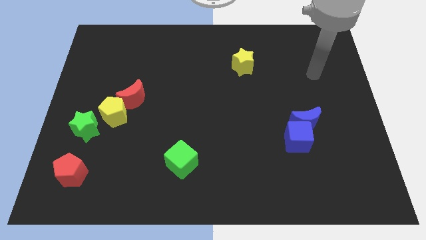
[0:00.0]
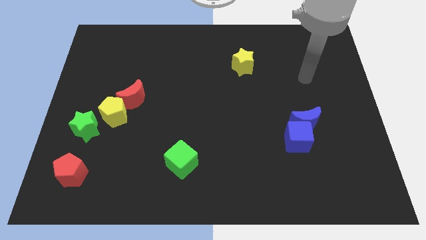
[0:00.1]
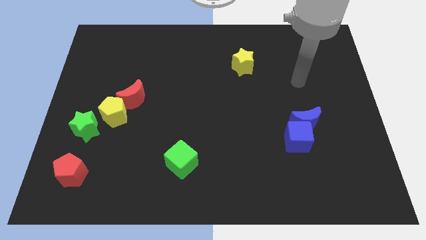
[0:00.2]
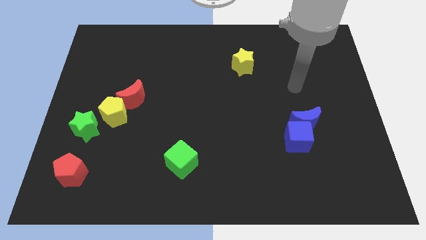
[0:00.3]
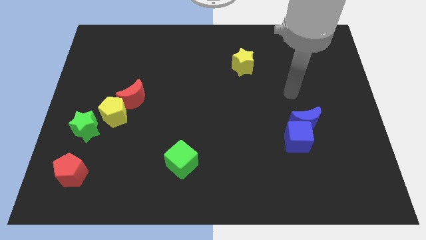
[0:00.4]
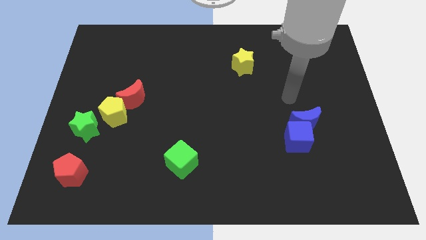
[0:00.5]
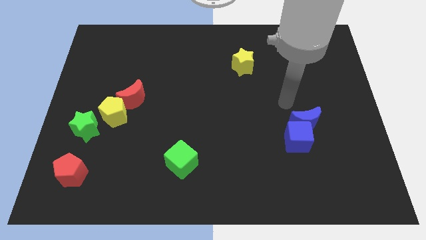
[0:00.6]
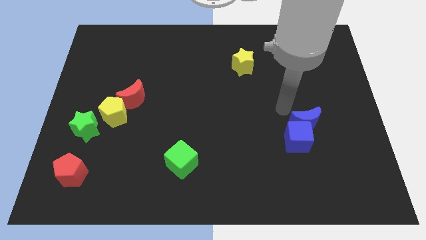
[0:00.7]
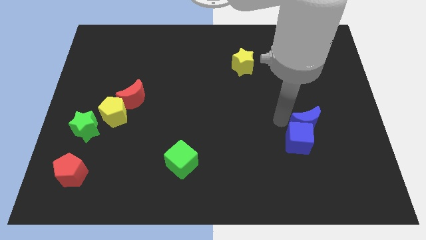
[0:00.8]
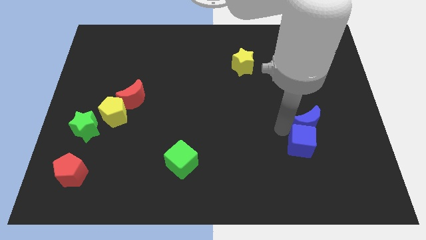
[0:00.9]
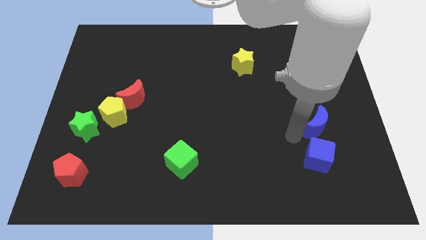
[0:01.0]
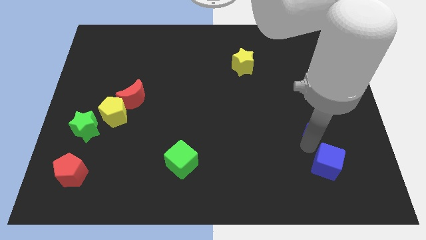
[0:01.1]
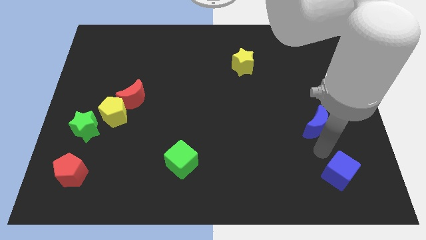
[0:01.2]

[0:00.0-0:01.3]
pull the blue moon apart from the blue cube

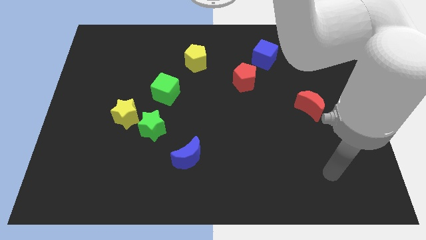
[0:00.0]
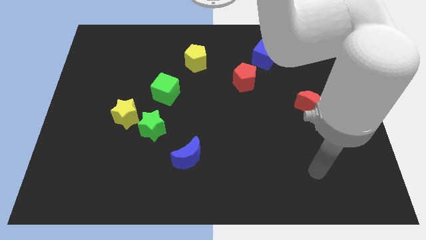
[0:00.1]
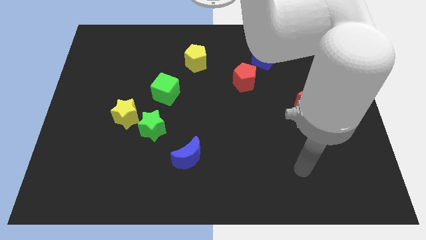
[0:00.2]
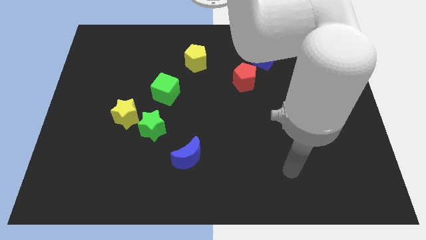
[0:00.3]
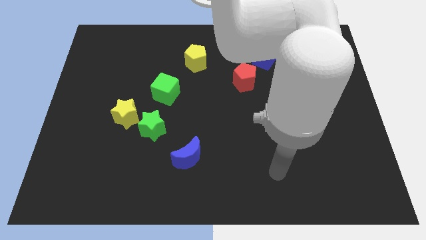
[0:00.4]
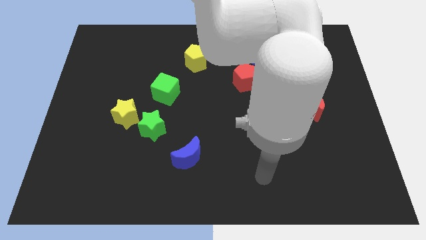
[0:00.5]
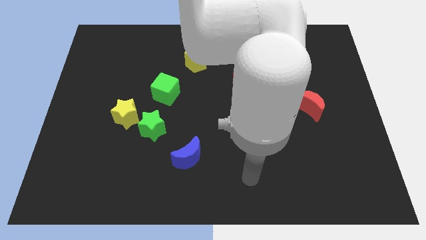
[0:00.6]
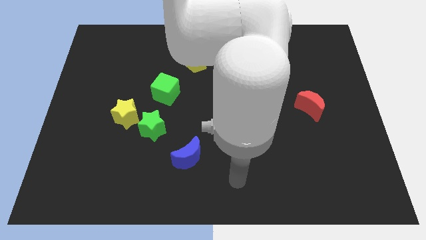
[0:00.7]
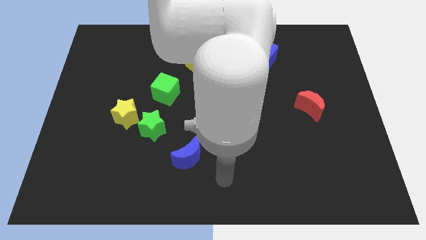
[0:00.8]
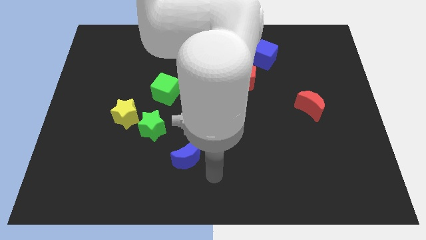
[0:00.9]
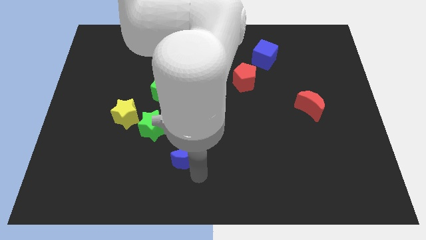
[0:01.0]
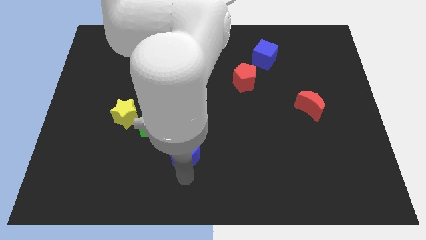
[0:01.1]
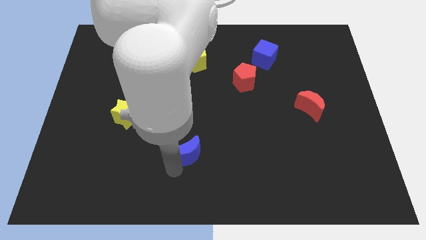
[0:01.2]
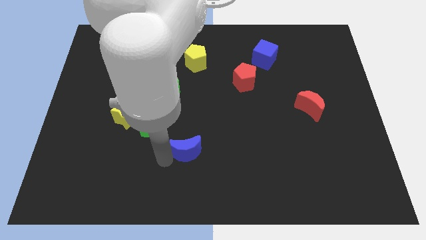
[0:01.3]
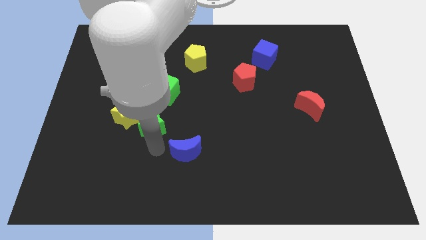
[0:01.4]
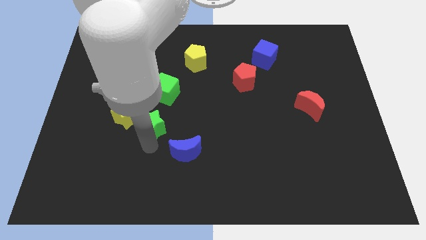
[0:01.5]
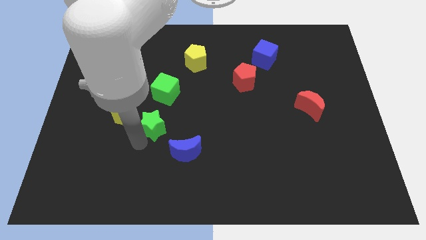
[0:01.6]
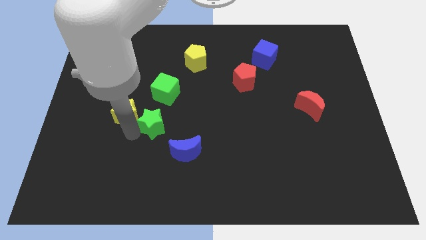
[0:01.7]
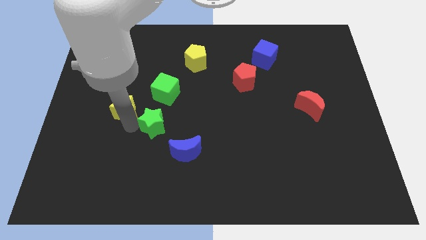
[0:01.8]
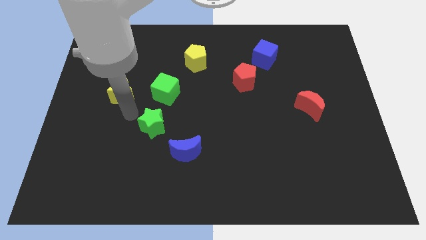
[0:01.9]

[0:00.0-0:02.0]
pull the green star apart from the yellow star

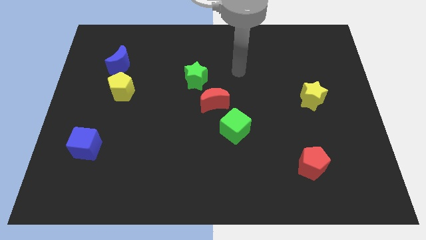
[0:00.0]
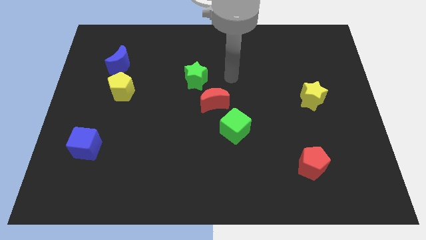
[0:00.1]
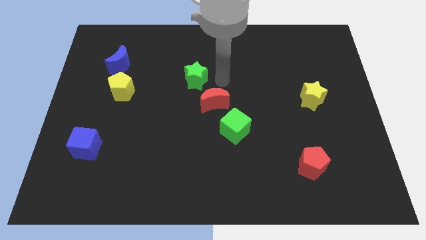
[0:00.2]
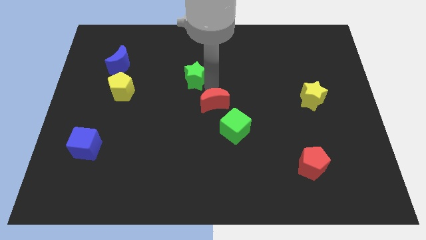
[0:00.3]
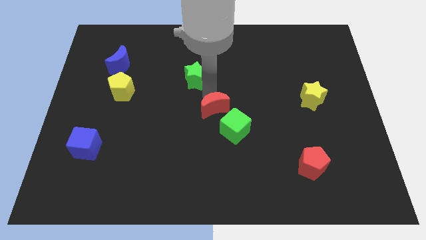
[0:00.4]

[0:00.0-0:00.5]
move the green star away from the red moon

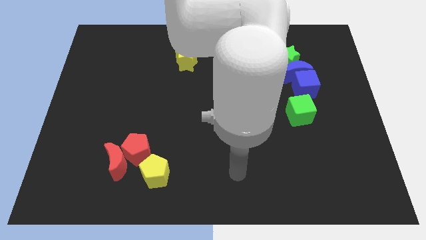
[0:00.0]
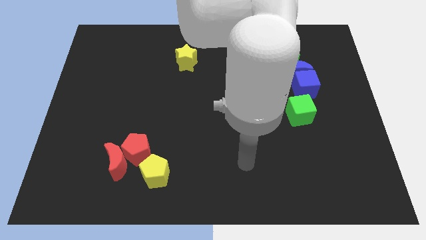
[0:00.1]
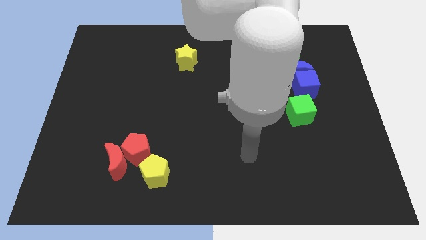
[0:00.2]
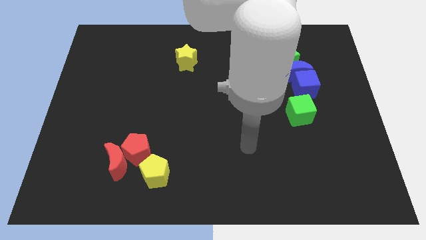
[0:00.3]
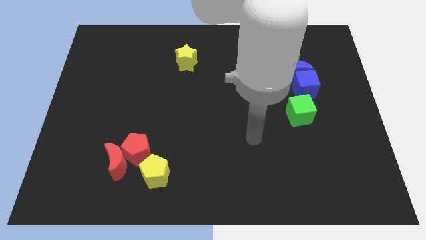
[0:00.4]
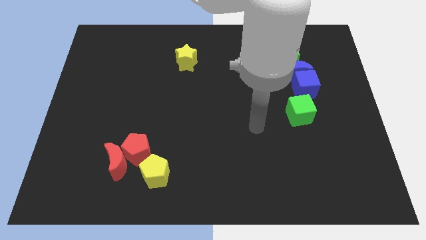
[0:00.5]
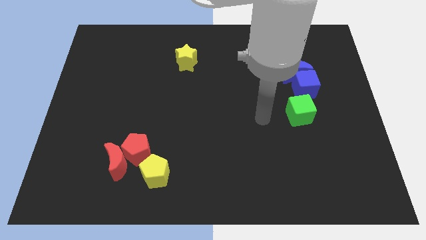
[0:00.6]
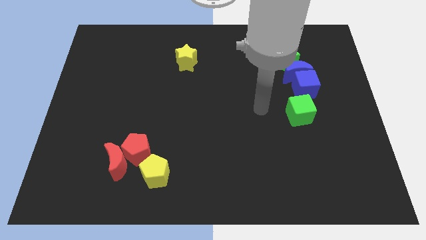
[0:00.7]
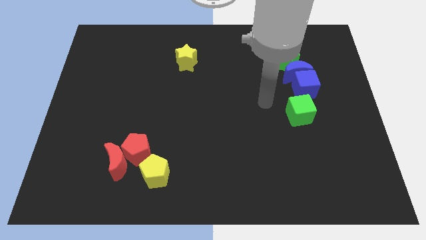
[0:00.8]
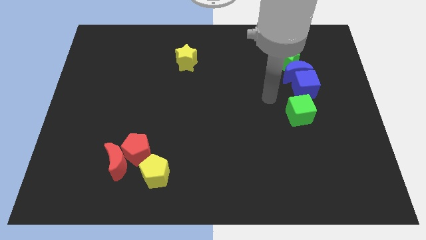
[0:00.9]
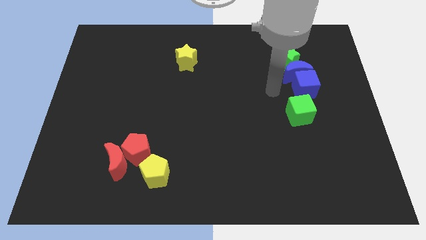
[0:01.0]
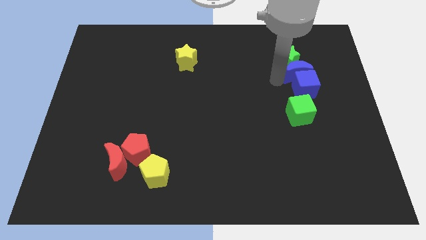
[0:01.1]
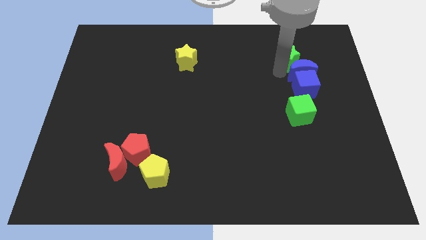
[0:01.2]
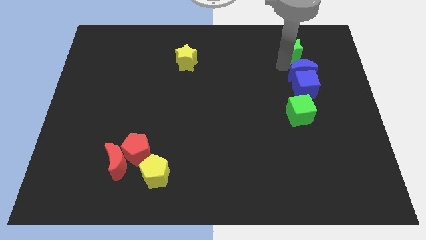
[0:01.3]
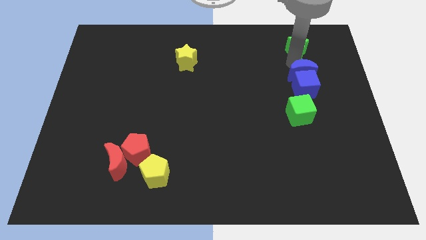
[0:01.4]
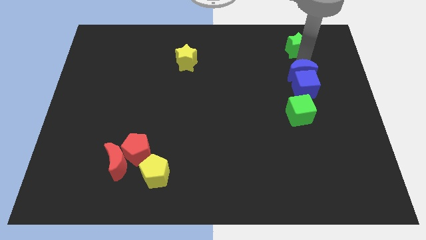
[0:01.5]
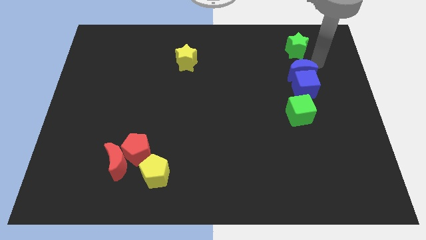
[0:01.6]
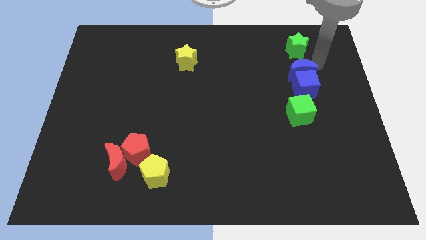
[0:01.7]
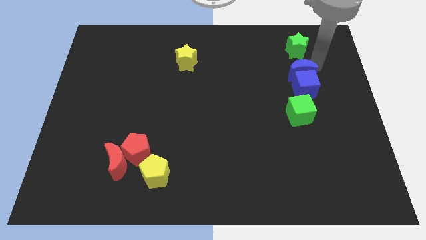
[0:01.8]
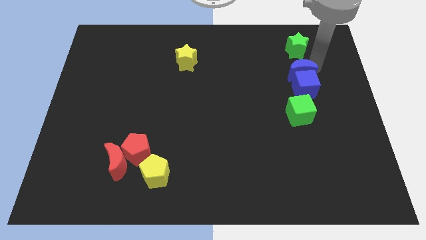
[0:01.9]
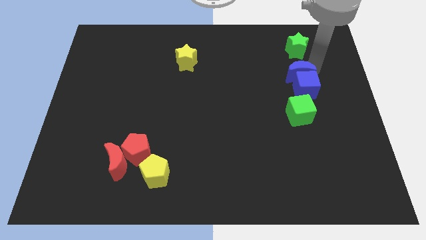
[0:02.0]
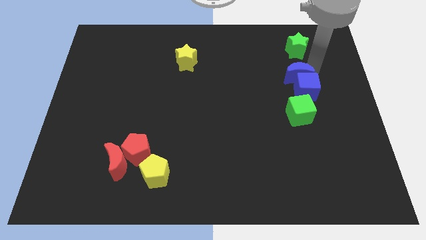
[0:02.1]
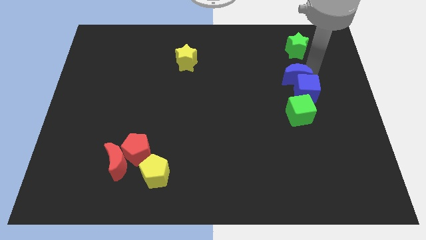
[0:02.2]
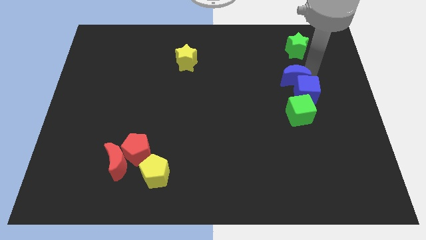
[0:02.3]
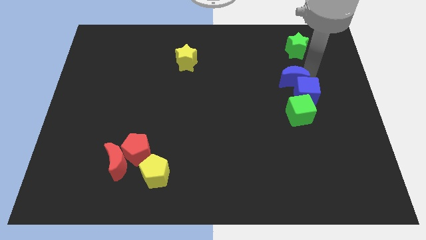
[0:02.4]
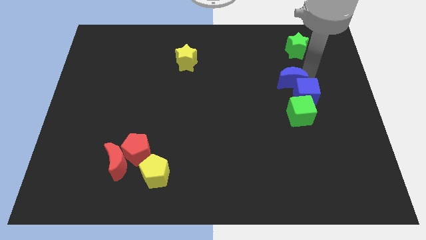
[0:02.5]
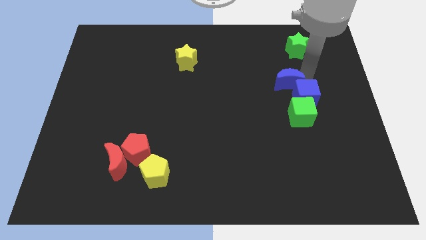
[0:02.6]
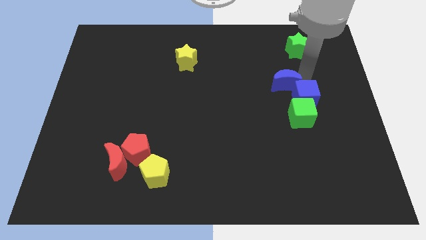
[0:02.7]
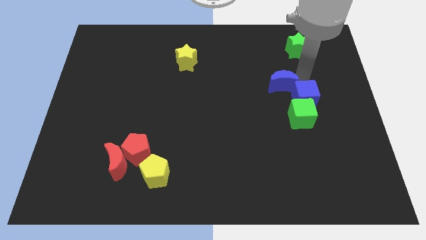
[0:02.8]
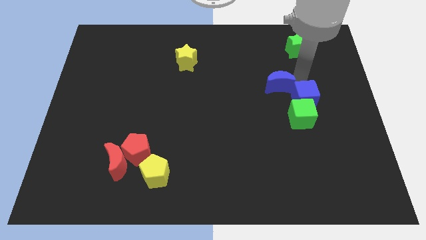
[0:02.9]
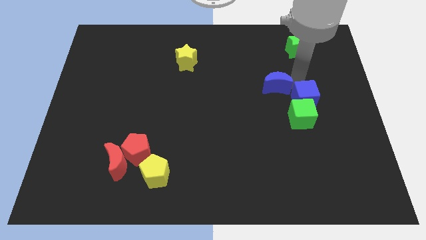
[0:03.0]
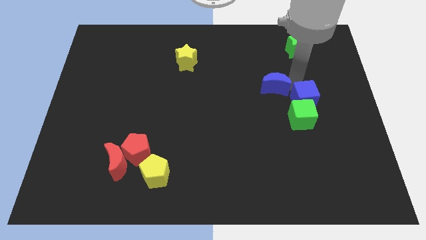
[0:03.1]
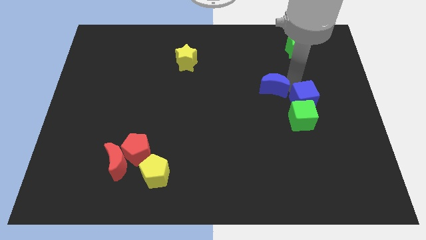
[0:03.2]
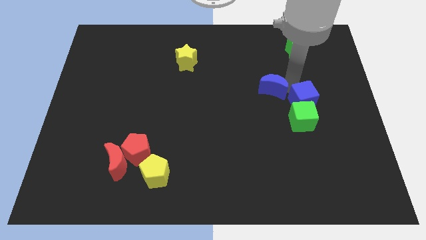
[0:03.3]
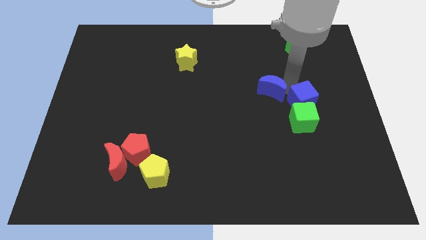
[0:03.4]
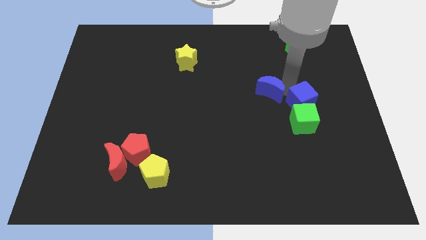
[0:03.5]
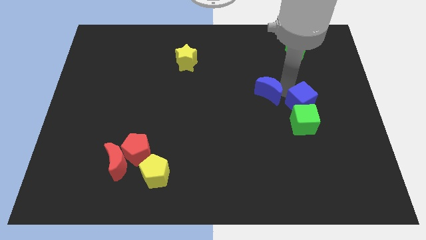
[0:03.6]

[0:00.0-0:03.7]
pull the blue moon apart from the blue cube and green star

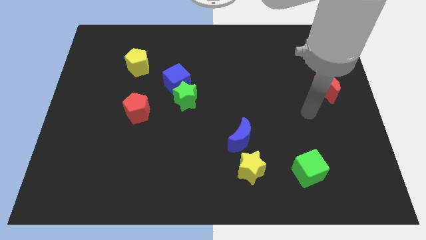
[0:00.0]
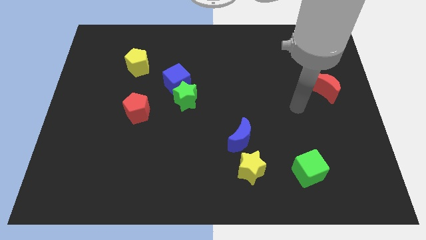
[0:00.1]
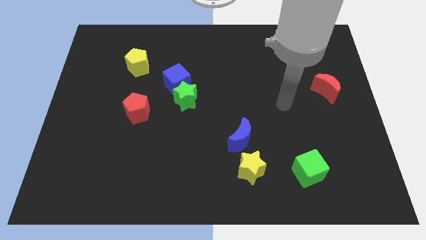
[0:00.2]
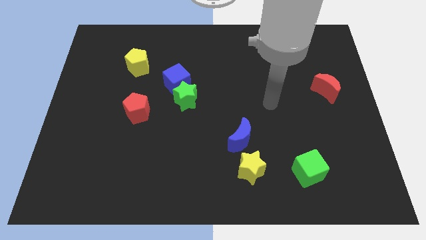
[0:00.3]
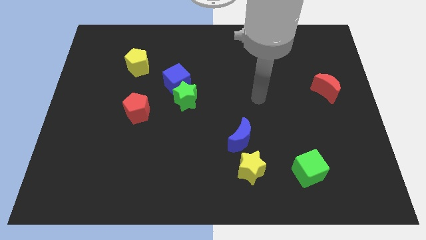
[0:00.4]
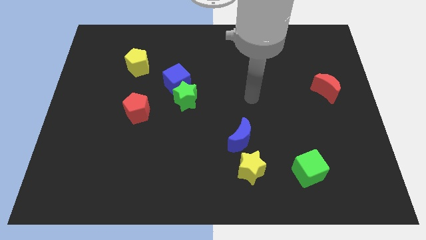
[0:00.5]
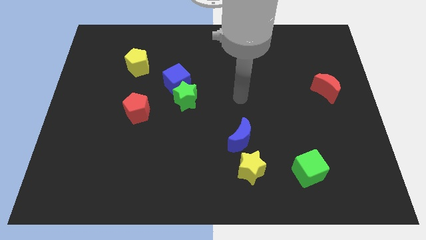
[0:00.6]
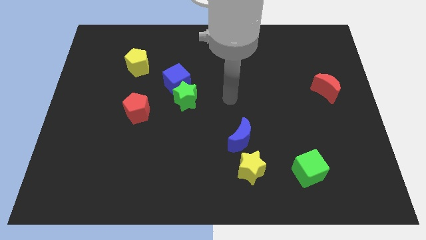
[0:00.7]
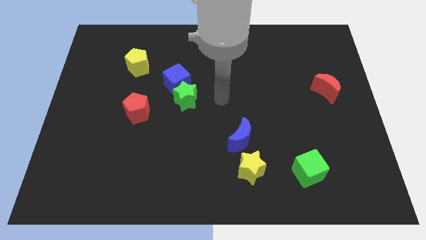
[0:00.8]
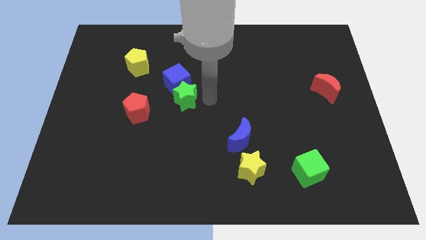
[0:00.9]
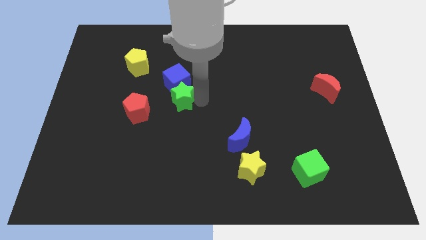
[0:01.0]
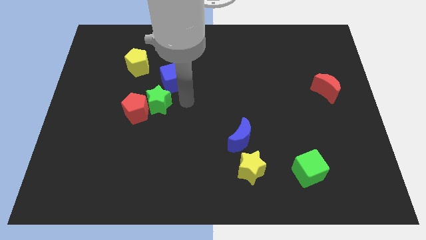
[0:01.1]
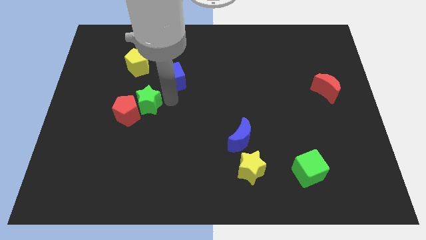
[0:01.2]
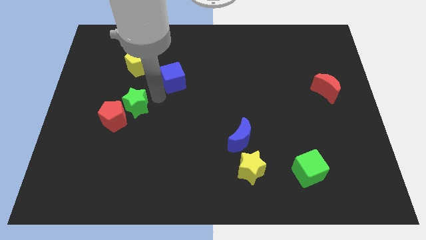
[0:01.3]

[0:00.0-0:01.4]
separate the blue cube from the green star

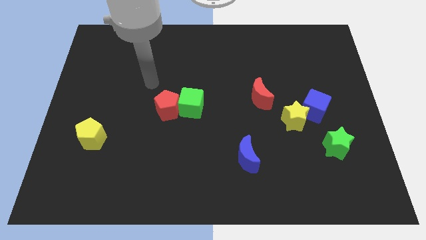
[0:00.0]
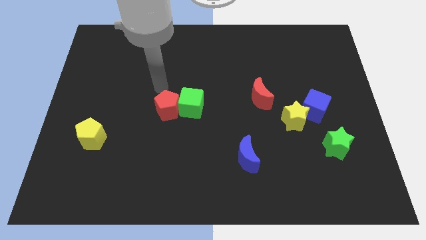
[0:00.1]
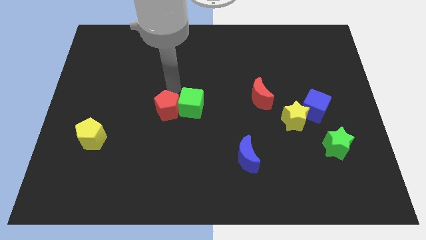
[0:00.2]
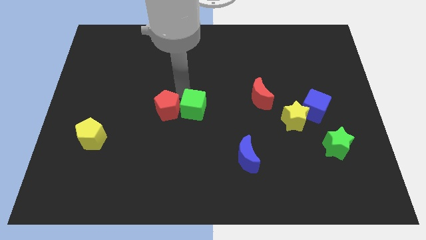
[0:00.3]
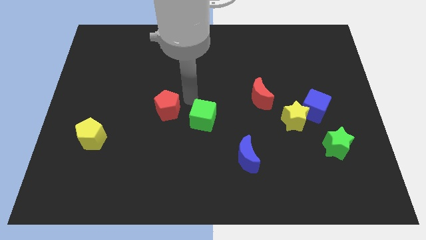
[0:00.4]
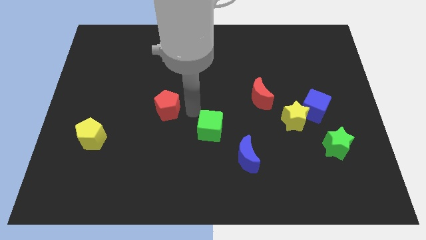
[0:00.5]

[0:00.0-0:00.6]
pull the red pentagon apart from the green cube
